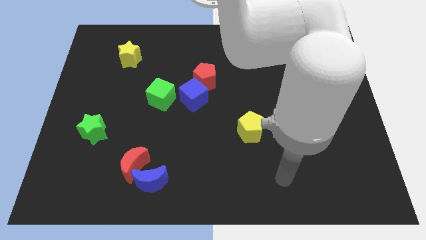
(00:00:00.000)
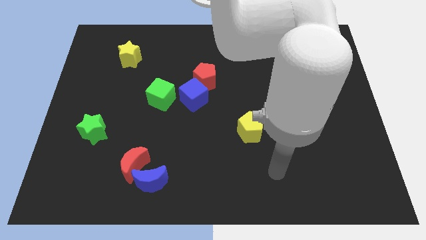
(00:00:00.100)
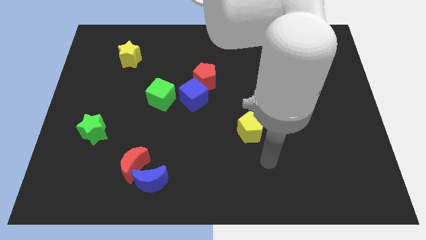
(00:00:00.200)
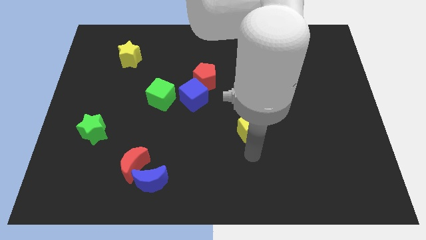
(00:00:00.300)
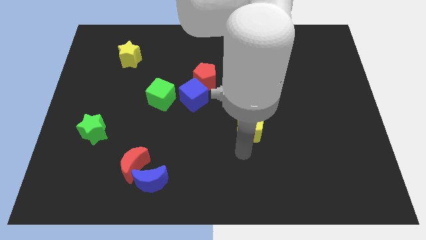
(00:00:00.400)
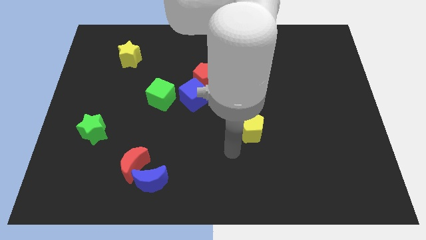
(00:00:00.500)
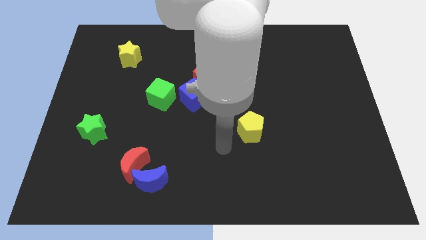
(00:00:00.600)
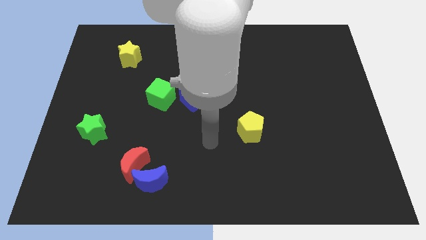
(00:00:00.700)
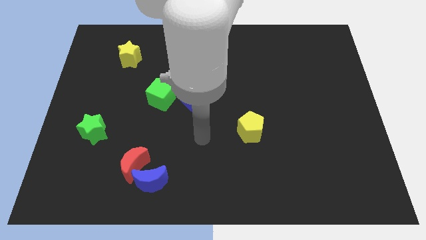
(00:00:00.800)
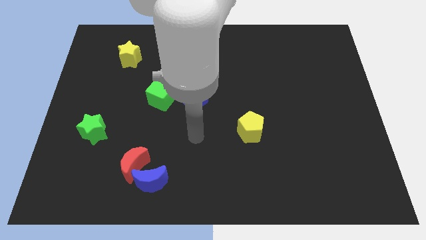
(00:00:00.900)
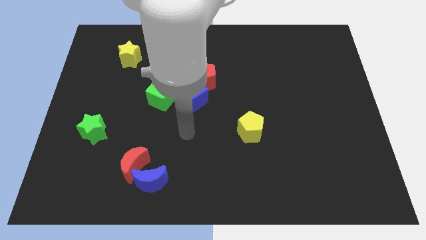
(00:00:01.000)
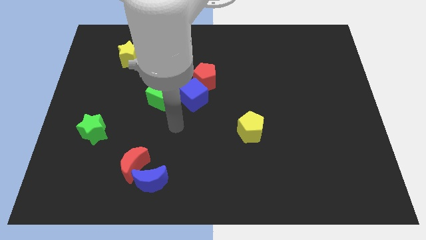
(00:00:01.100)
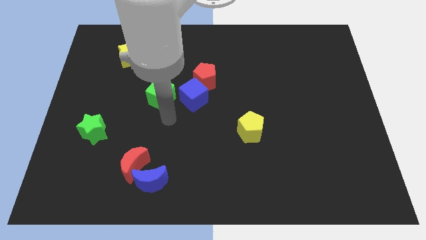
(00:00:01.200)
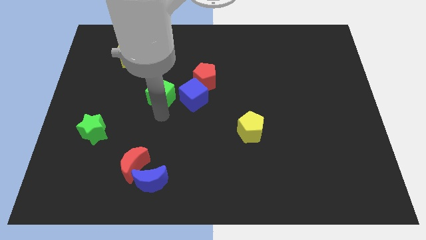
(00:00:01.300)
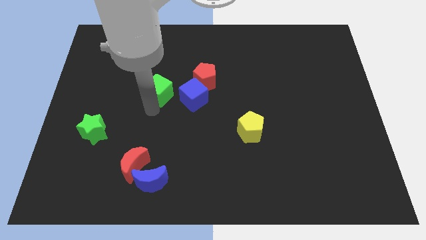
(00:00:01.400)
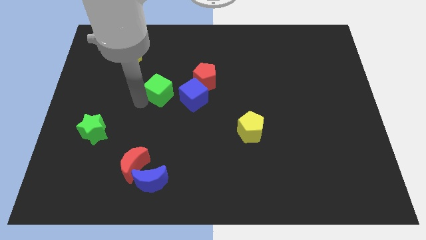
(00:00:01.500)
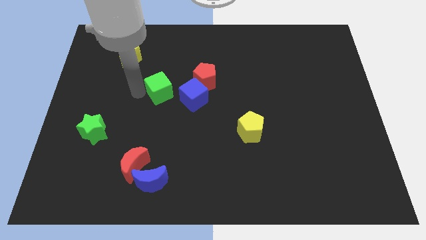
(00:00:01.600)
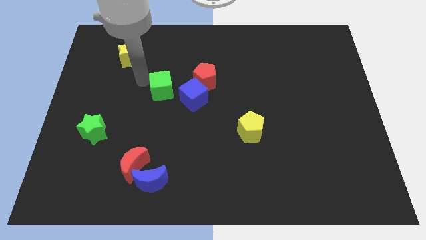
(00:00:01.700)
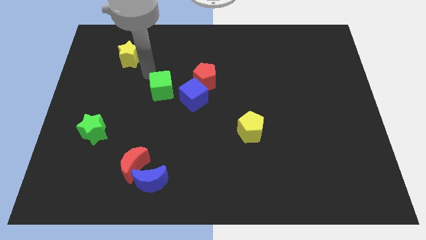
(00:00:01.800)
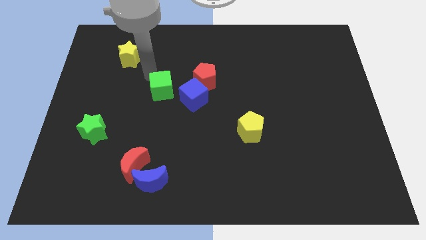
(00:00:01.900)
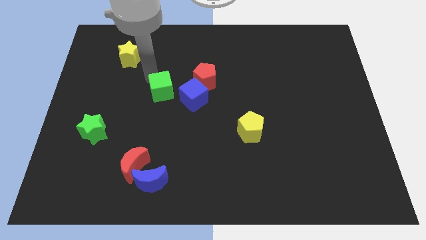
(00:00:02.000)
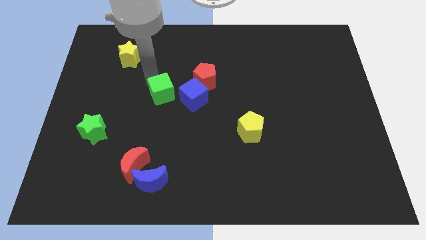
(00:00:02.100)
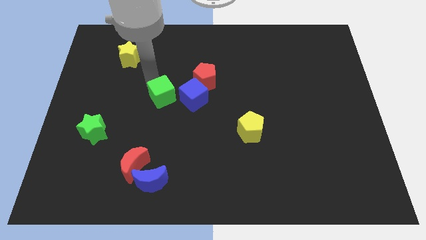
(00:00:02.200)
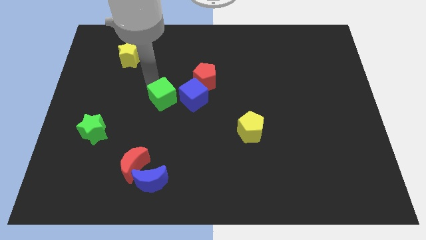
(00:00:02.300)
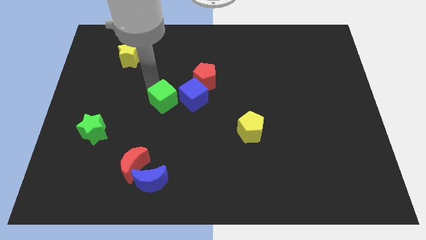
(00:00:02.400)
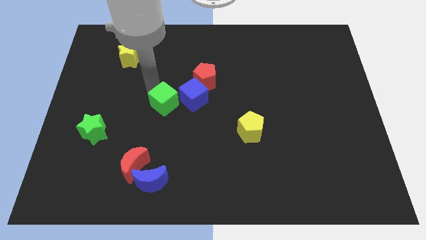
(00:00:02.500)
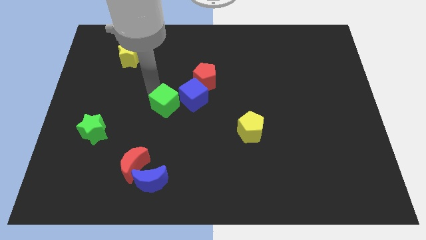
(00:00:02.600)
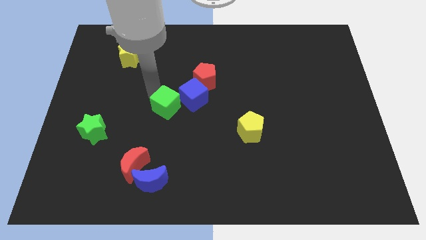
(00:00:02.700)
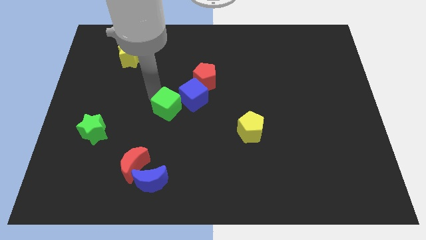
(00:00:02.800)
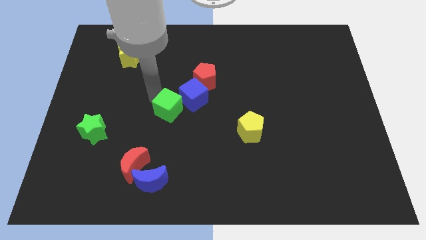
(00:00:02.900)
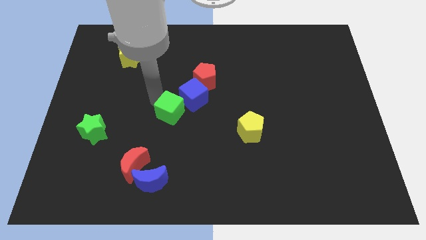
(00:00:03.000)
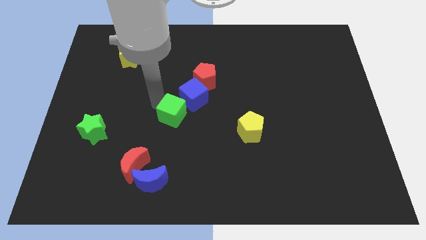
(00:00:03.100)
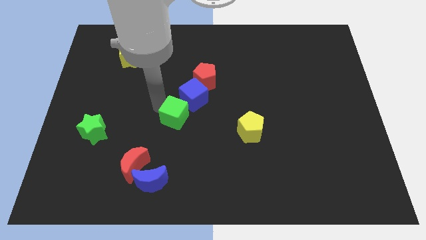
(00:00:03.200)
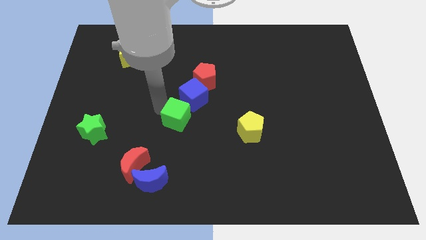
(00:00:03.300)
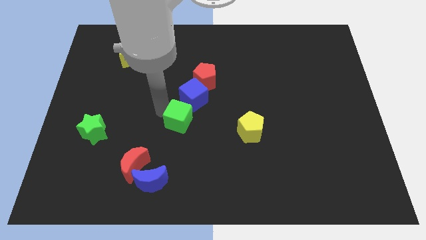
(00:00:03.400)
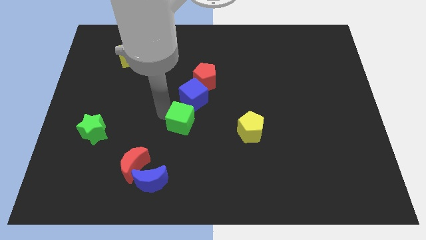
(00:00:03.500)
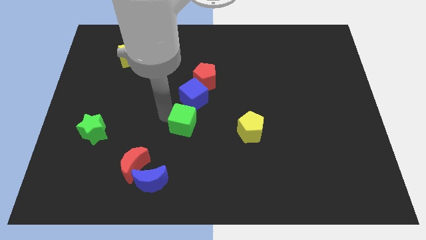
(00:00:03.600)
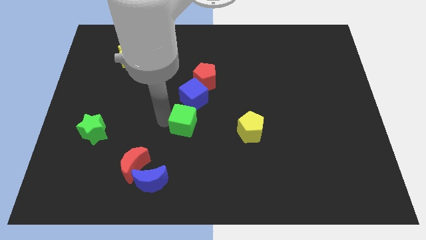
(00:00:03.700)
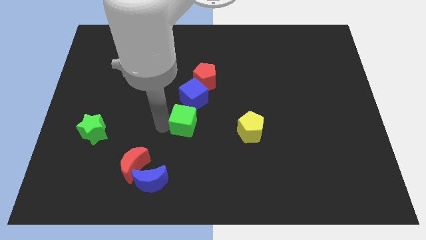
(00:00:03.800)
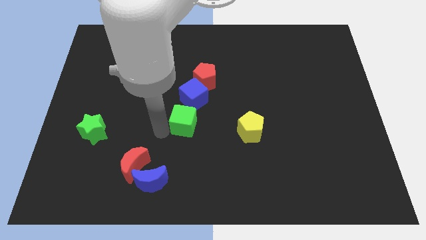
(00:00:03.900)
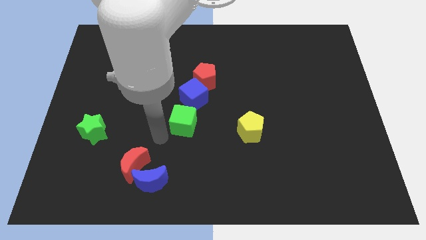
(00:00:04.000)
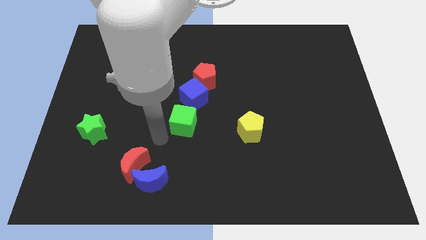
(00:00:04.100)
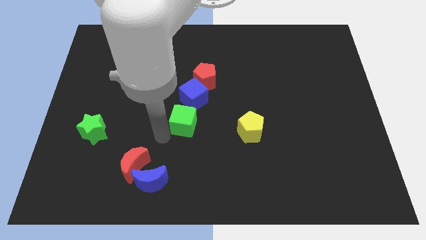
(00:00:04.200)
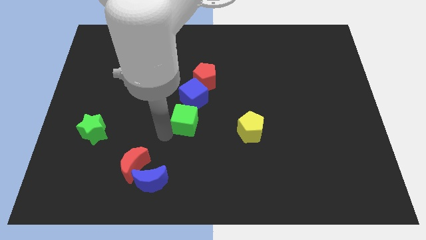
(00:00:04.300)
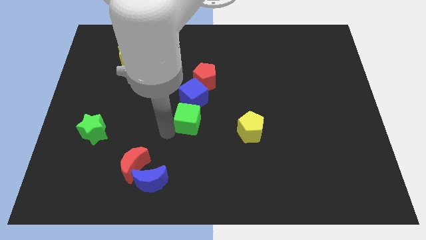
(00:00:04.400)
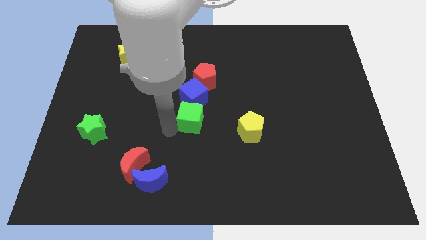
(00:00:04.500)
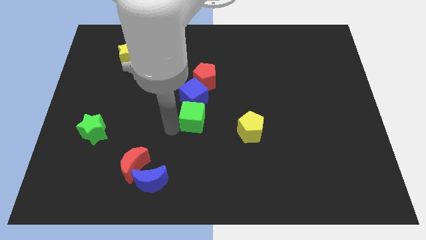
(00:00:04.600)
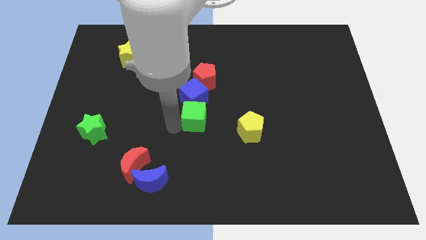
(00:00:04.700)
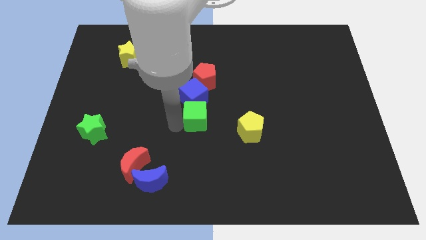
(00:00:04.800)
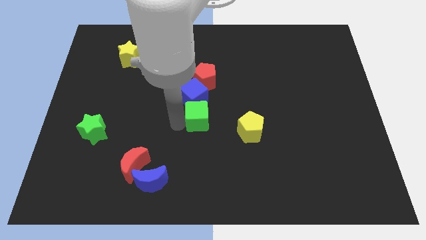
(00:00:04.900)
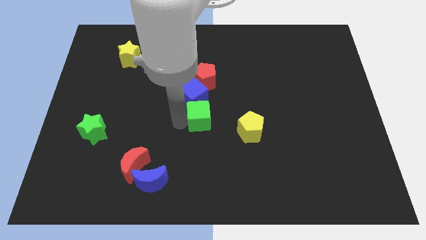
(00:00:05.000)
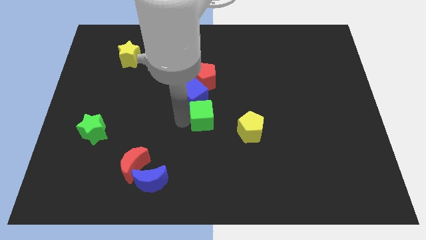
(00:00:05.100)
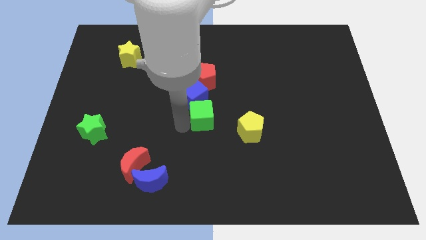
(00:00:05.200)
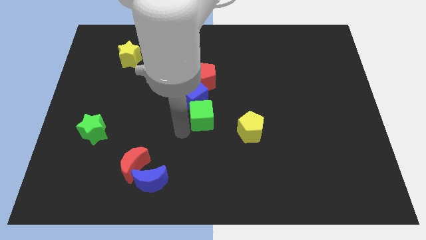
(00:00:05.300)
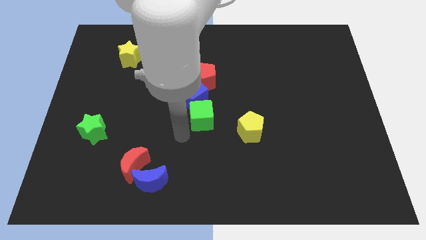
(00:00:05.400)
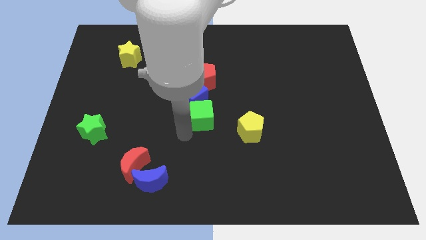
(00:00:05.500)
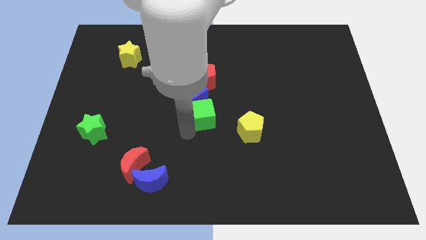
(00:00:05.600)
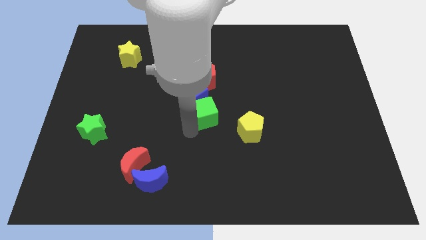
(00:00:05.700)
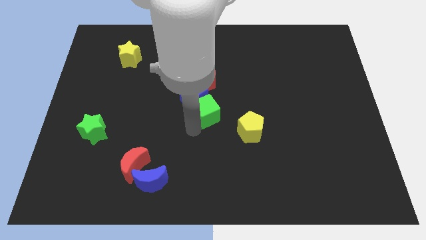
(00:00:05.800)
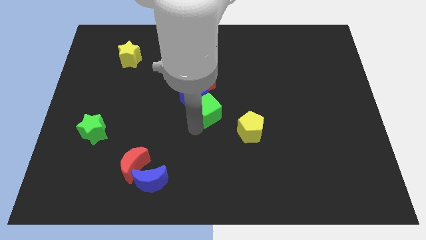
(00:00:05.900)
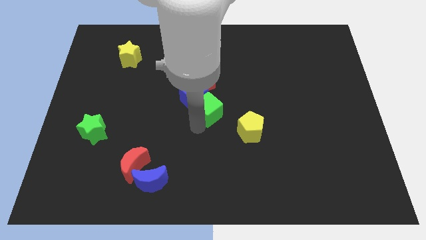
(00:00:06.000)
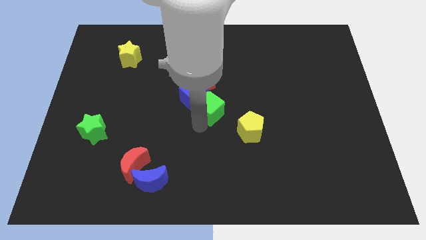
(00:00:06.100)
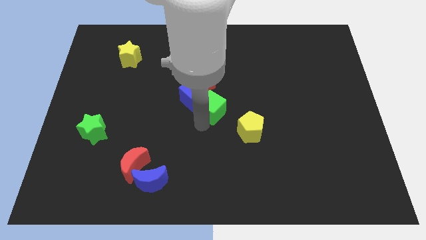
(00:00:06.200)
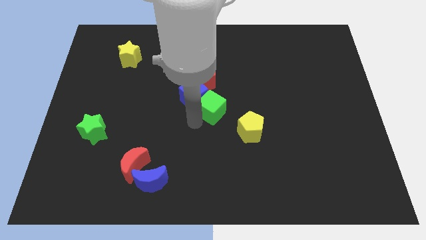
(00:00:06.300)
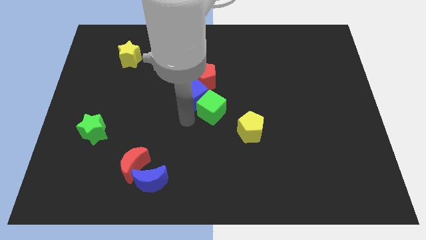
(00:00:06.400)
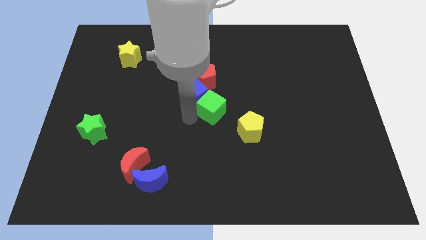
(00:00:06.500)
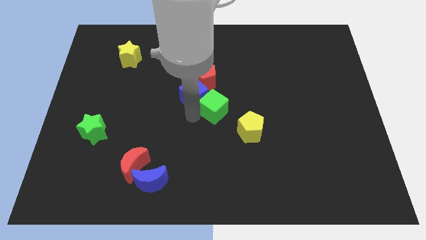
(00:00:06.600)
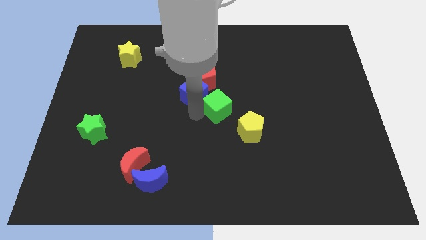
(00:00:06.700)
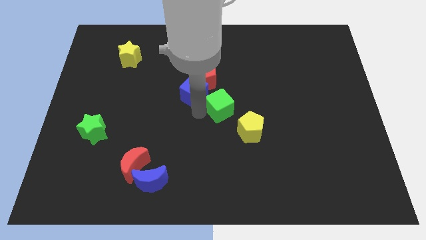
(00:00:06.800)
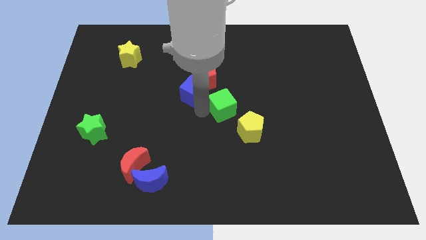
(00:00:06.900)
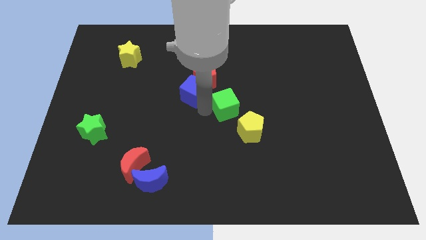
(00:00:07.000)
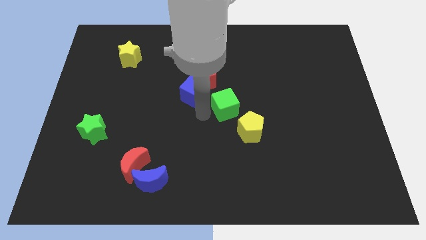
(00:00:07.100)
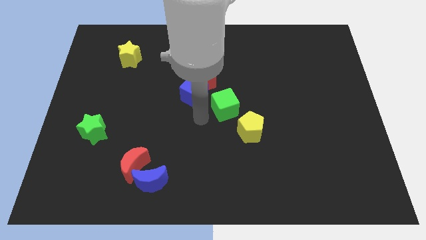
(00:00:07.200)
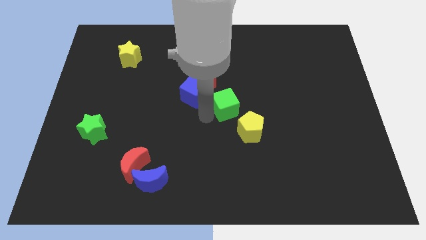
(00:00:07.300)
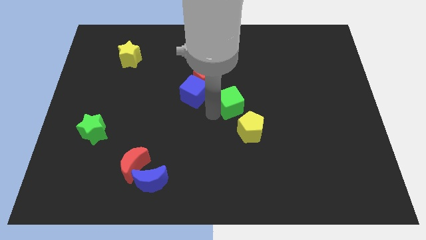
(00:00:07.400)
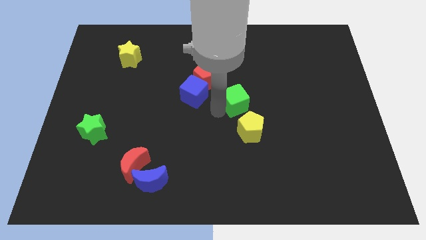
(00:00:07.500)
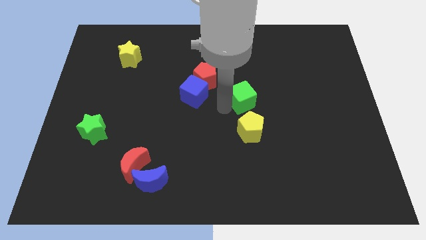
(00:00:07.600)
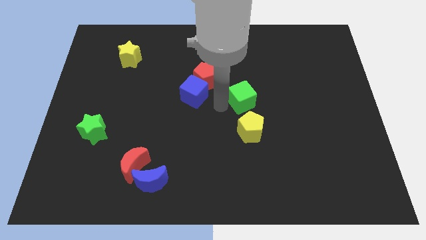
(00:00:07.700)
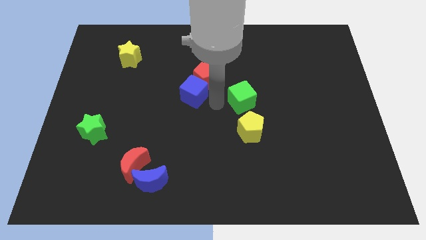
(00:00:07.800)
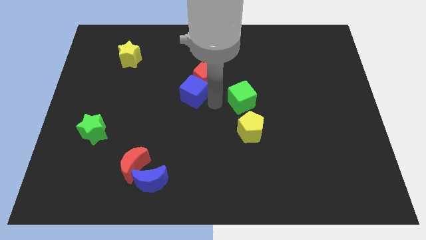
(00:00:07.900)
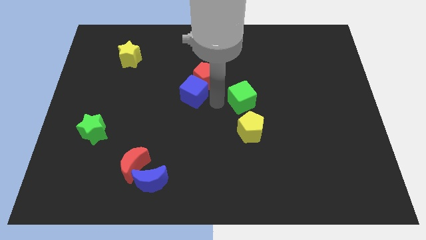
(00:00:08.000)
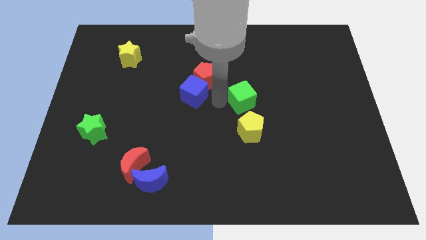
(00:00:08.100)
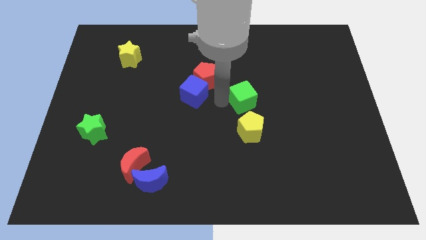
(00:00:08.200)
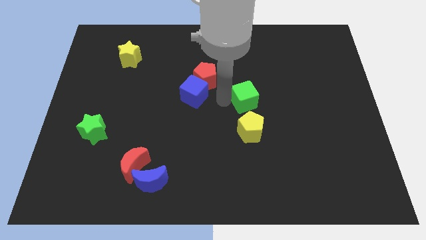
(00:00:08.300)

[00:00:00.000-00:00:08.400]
move the green cube to the right
